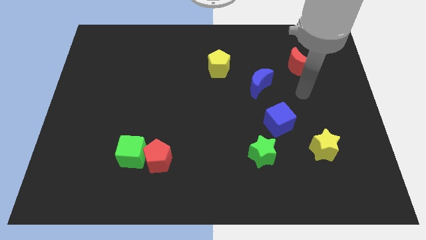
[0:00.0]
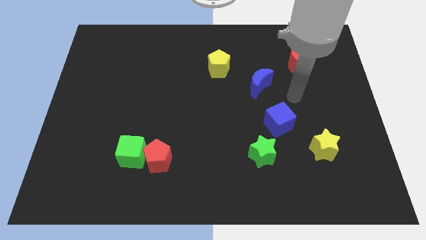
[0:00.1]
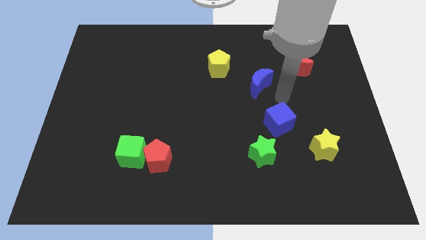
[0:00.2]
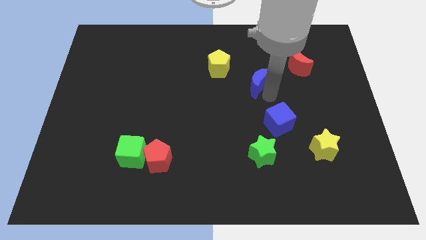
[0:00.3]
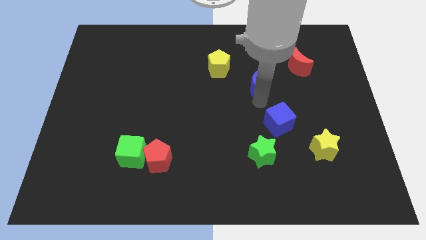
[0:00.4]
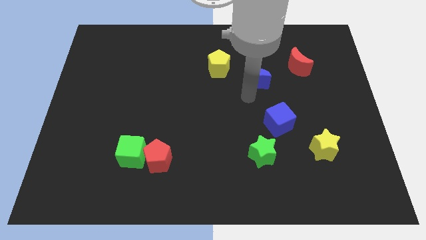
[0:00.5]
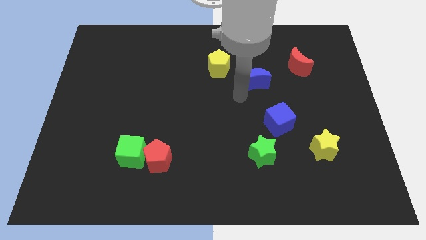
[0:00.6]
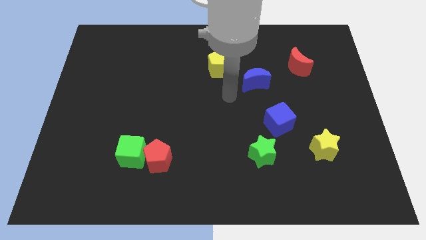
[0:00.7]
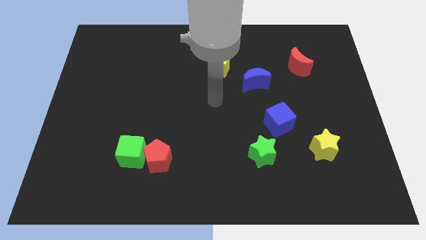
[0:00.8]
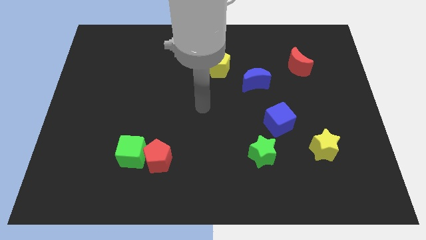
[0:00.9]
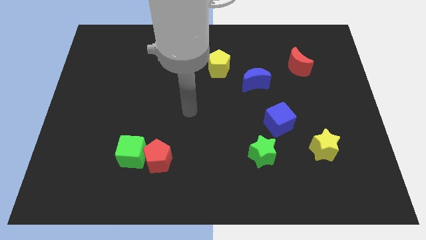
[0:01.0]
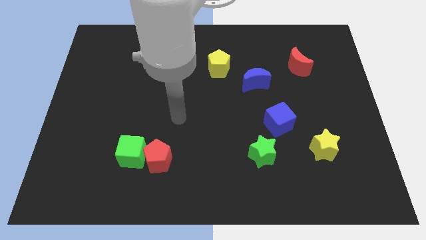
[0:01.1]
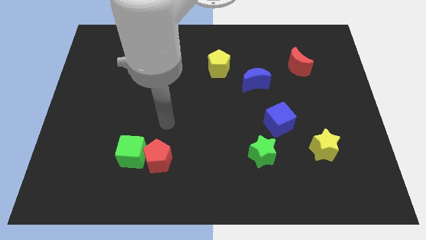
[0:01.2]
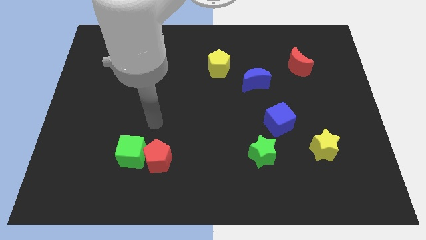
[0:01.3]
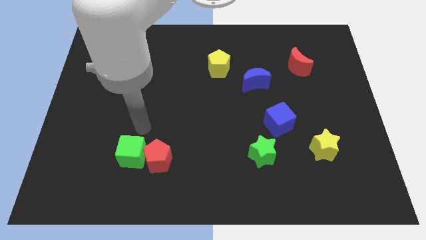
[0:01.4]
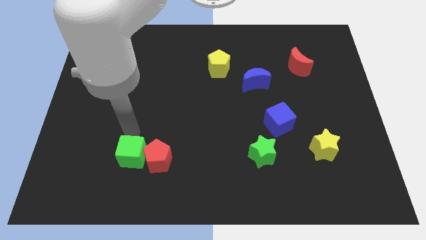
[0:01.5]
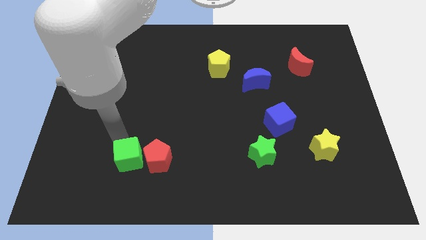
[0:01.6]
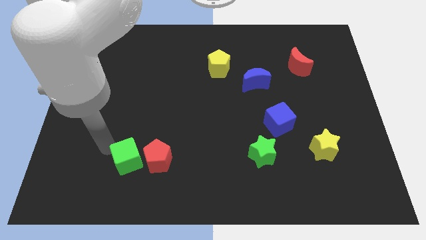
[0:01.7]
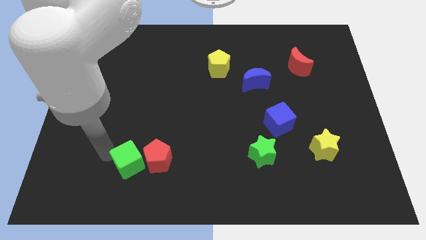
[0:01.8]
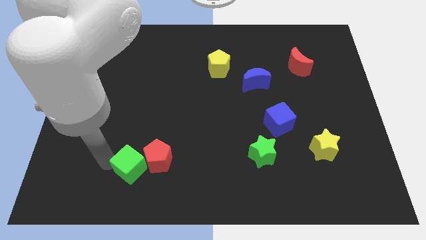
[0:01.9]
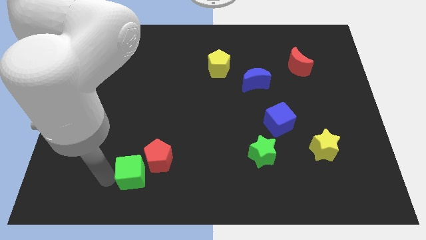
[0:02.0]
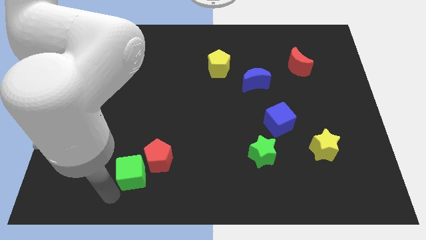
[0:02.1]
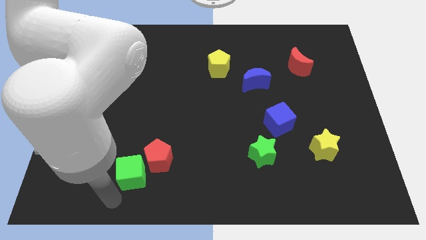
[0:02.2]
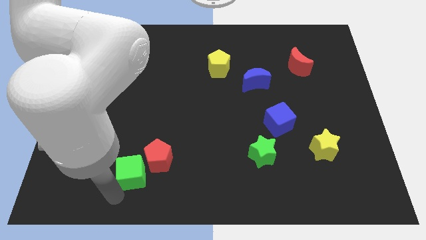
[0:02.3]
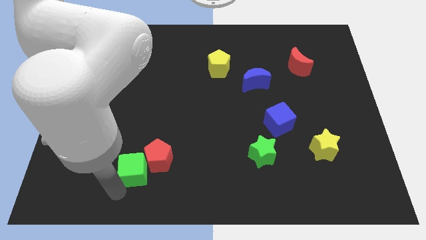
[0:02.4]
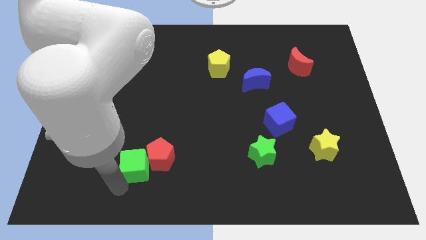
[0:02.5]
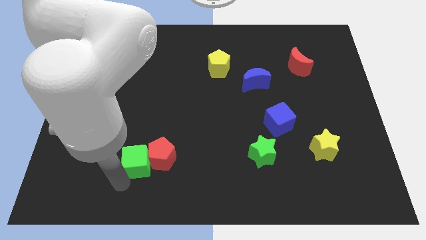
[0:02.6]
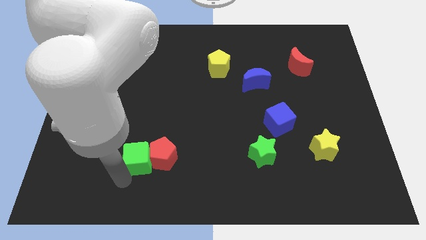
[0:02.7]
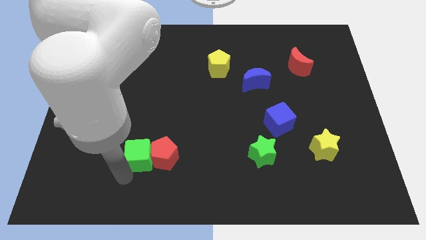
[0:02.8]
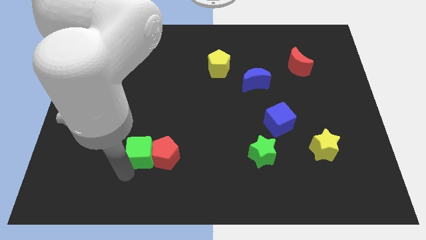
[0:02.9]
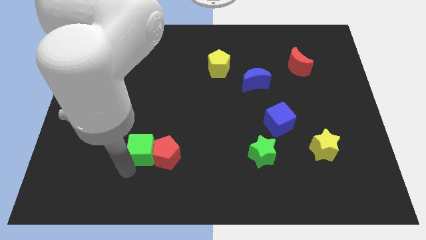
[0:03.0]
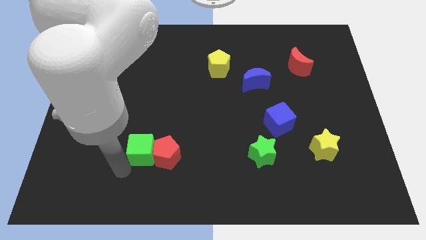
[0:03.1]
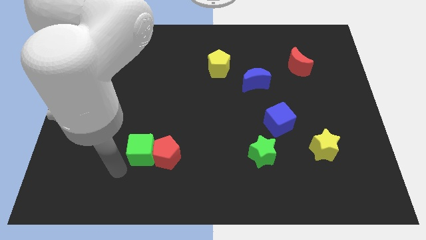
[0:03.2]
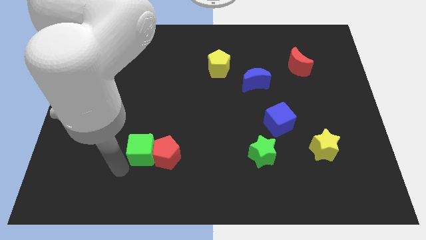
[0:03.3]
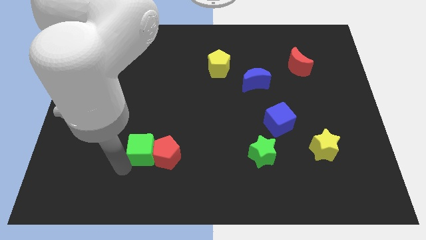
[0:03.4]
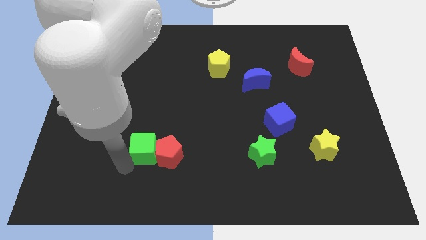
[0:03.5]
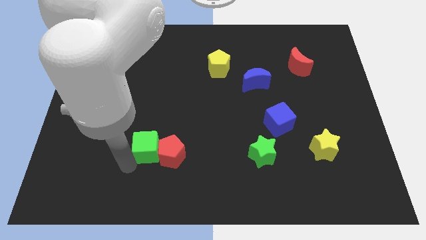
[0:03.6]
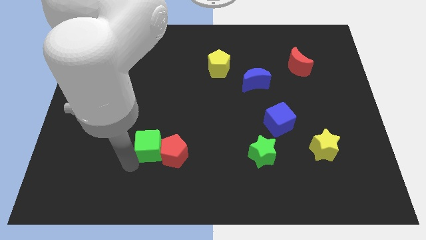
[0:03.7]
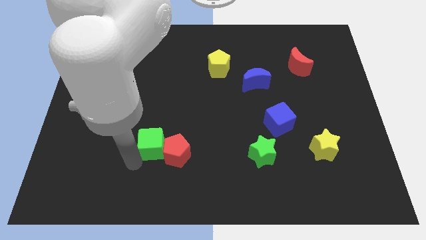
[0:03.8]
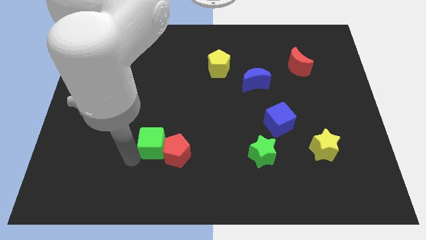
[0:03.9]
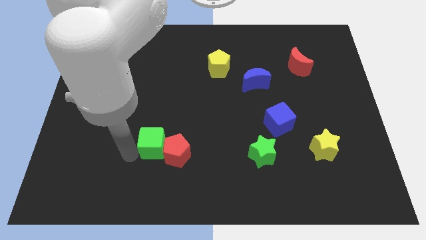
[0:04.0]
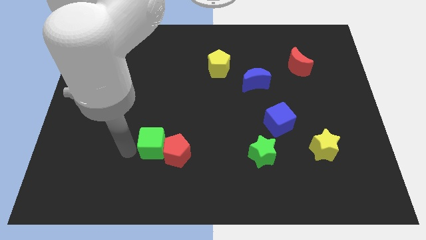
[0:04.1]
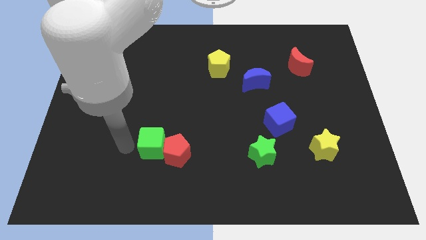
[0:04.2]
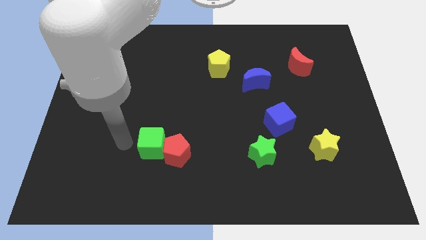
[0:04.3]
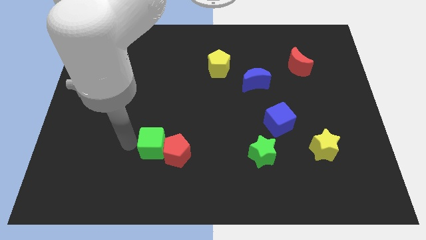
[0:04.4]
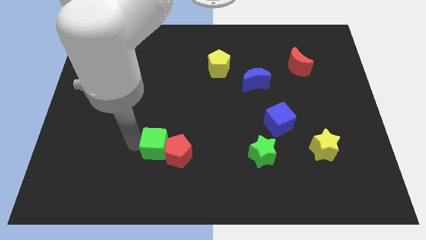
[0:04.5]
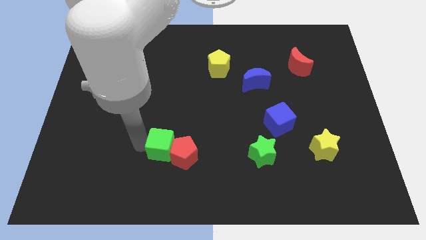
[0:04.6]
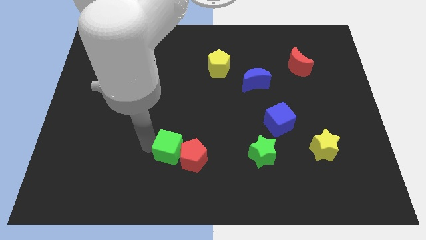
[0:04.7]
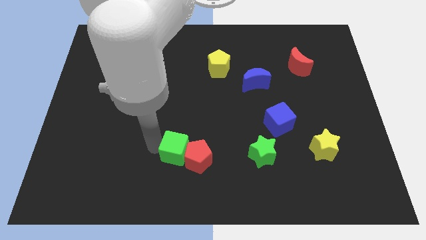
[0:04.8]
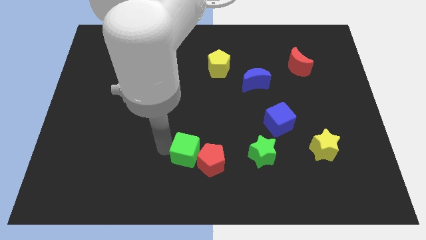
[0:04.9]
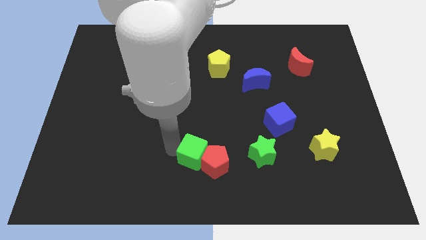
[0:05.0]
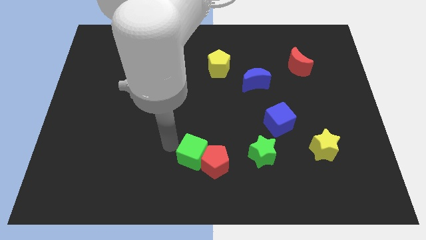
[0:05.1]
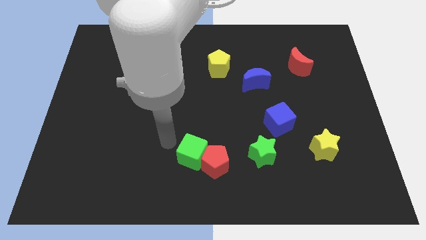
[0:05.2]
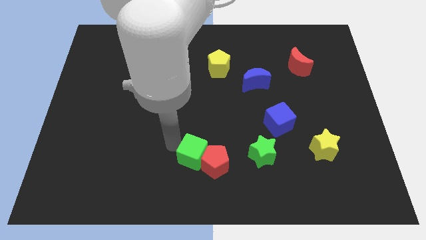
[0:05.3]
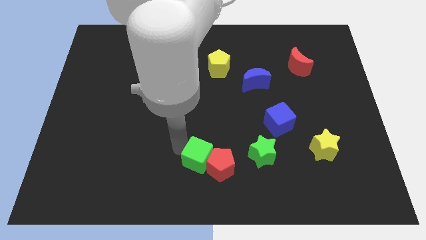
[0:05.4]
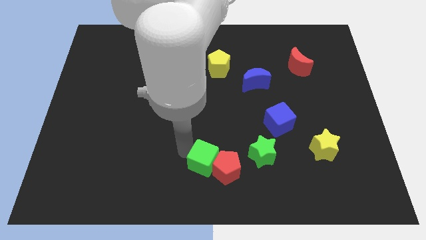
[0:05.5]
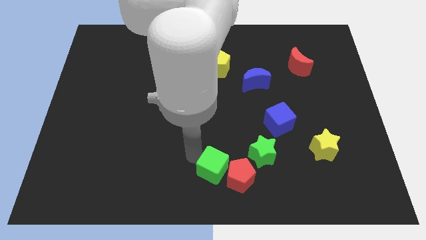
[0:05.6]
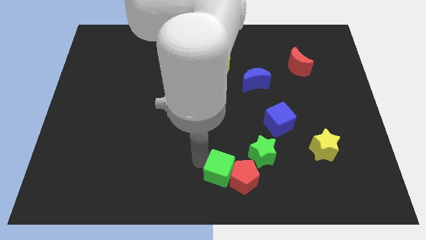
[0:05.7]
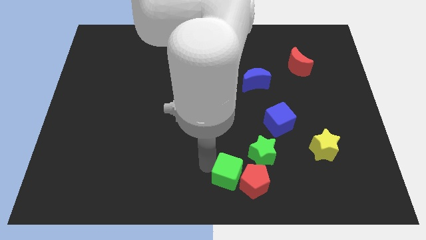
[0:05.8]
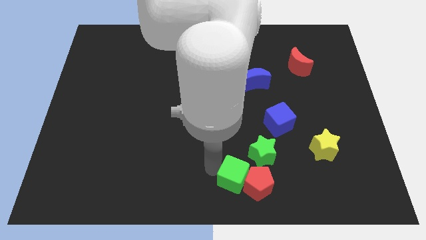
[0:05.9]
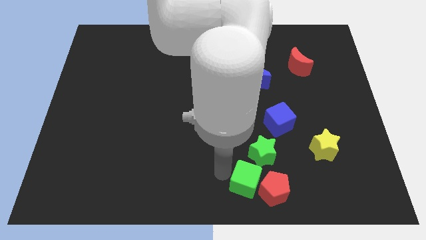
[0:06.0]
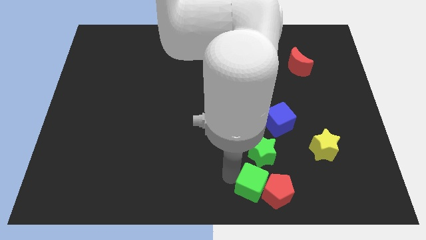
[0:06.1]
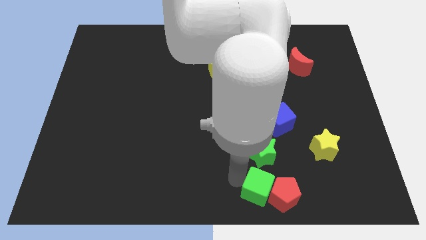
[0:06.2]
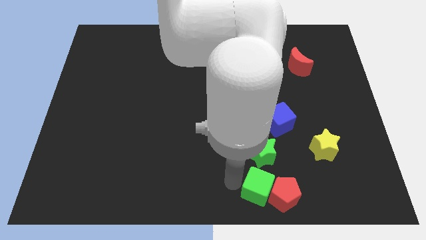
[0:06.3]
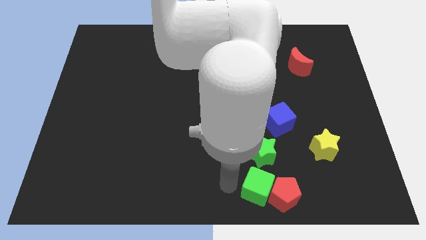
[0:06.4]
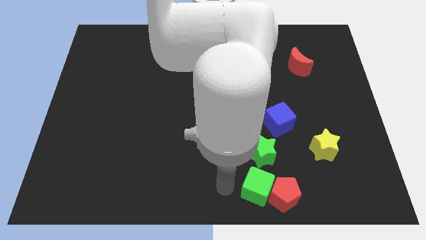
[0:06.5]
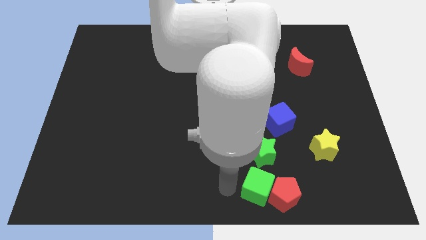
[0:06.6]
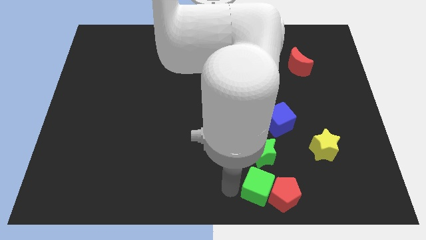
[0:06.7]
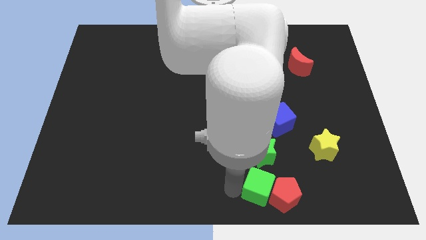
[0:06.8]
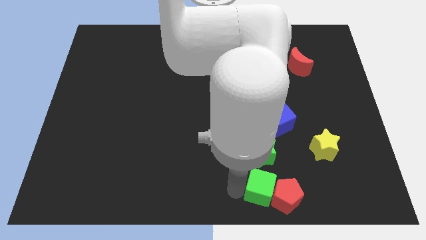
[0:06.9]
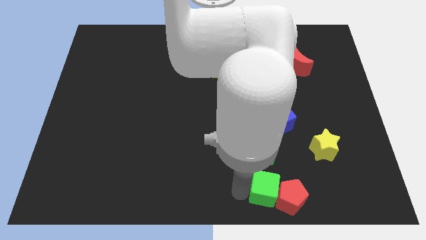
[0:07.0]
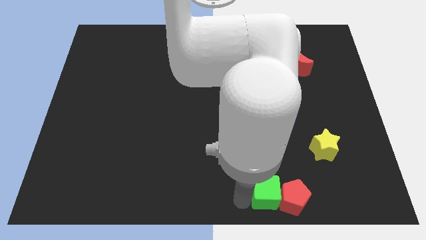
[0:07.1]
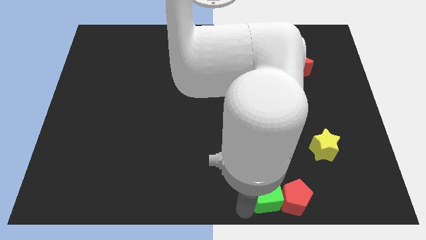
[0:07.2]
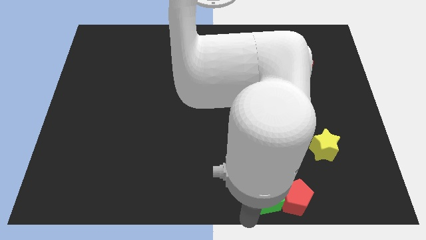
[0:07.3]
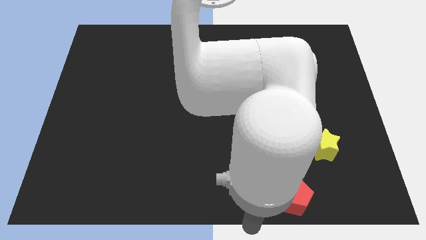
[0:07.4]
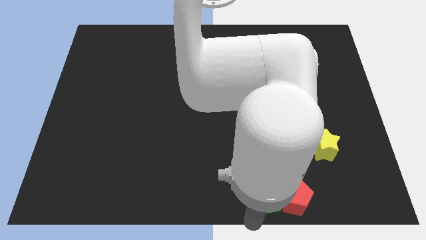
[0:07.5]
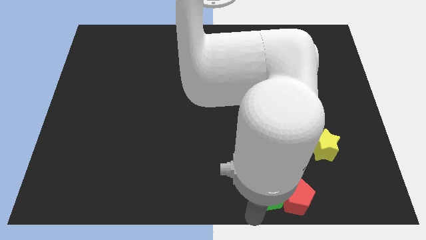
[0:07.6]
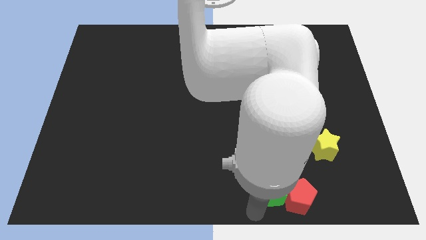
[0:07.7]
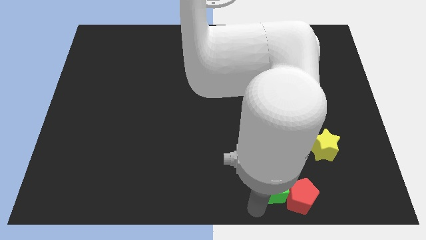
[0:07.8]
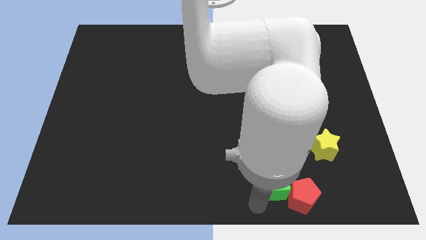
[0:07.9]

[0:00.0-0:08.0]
push the green cube below the blue cube
